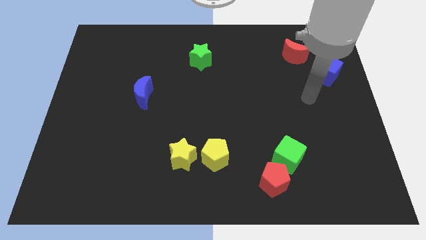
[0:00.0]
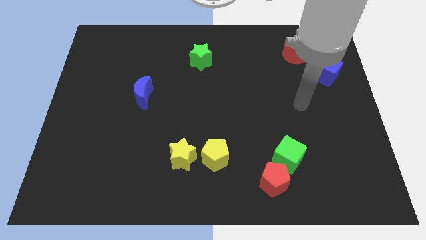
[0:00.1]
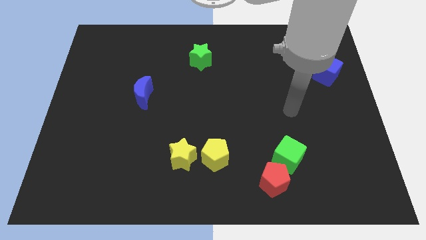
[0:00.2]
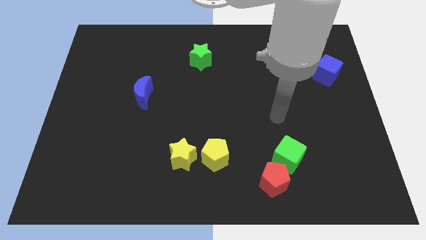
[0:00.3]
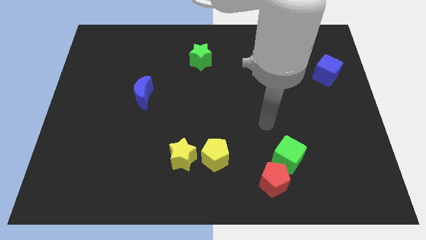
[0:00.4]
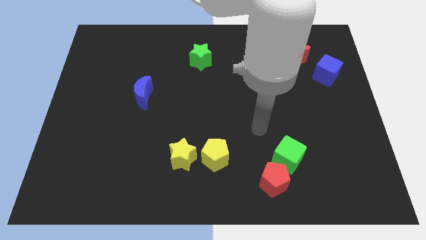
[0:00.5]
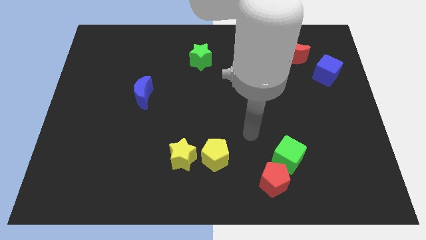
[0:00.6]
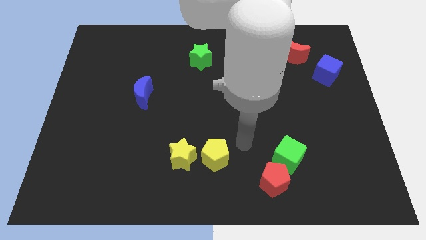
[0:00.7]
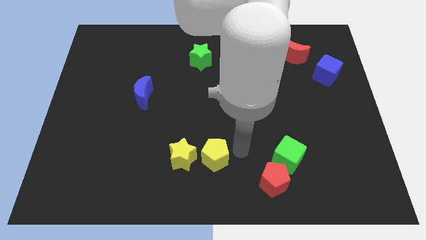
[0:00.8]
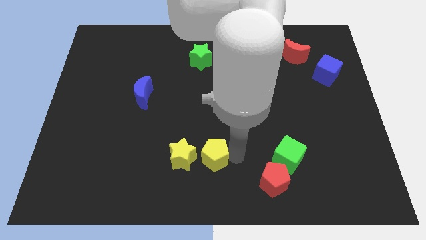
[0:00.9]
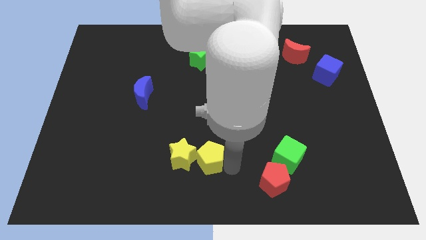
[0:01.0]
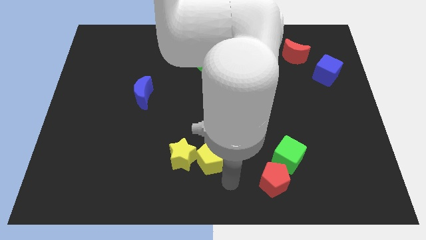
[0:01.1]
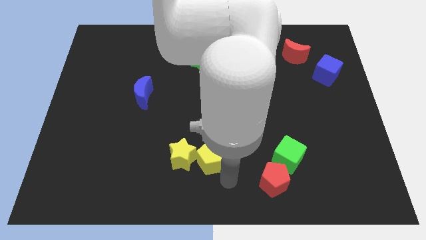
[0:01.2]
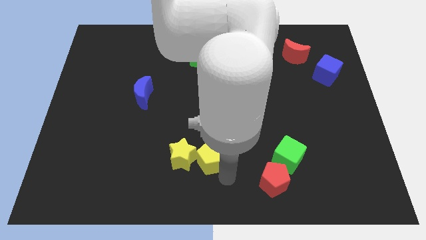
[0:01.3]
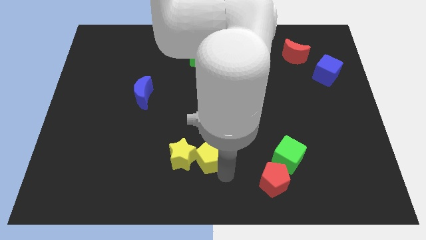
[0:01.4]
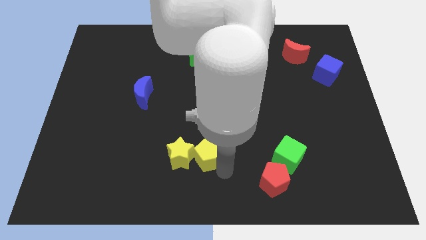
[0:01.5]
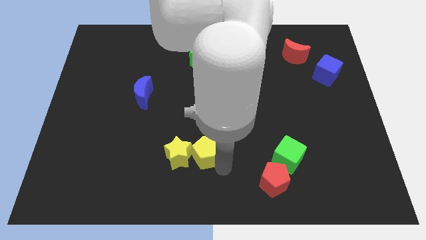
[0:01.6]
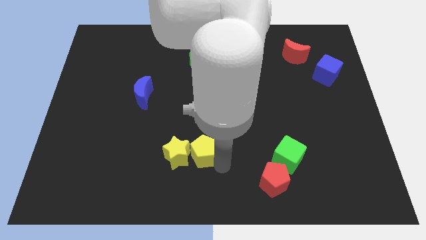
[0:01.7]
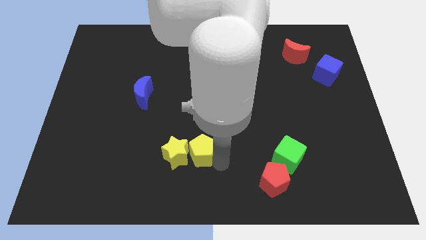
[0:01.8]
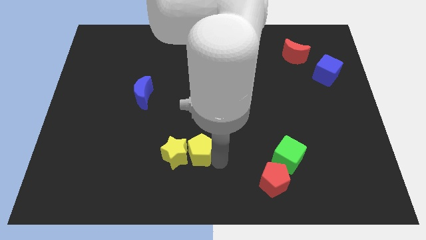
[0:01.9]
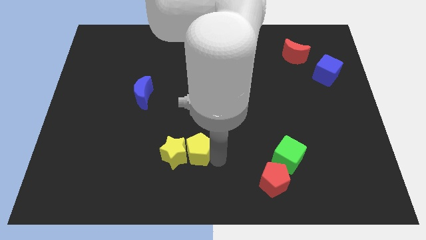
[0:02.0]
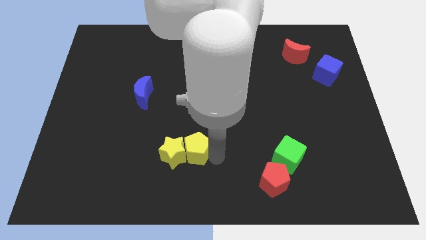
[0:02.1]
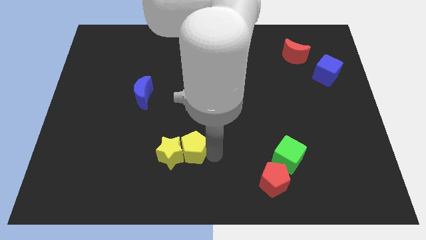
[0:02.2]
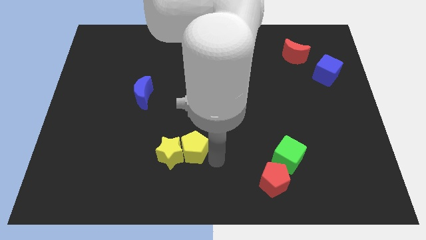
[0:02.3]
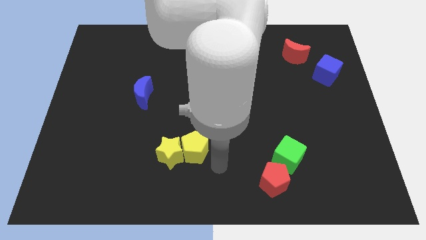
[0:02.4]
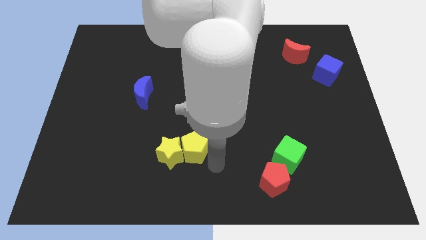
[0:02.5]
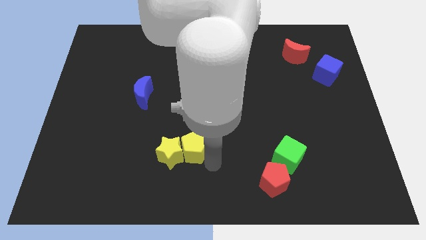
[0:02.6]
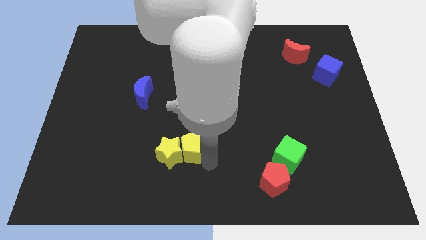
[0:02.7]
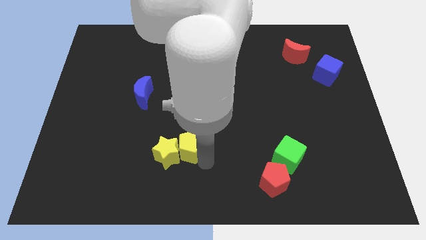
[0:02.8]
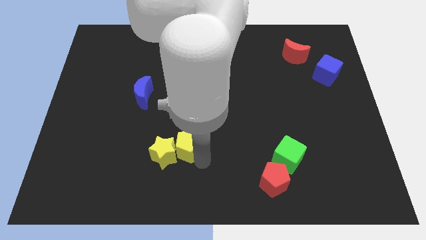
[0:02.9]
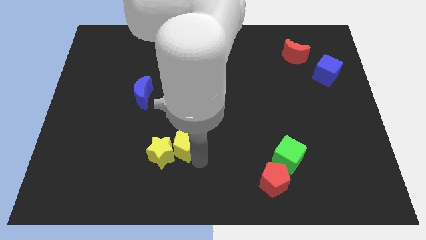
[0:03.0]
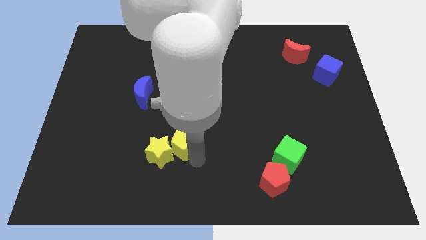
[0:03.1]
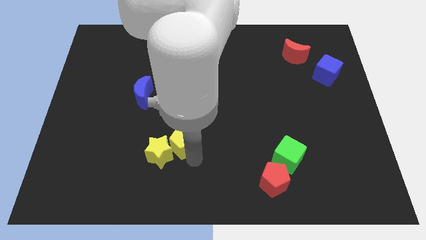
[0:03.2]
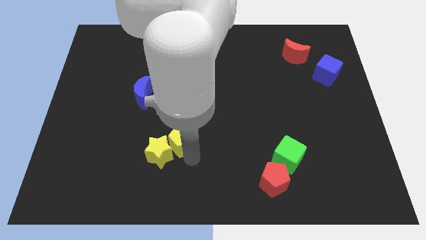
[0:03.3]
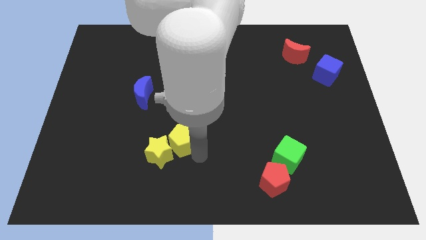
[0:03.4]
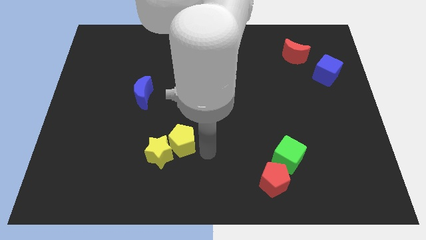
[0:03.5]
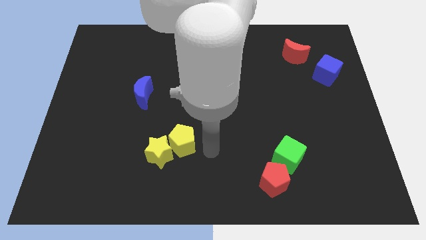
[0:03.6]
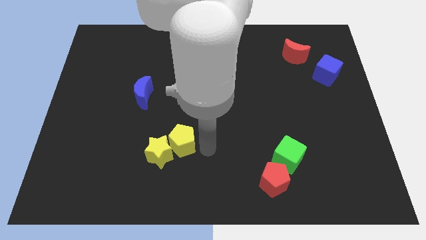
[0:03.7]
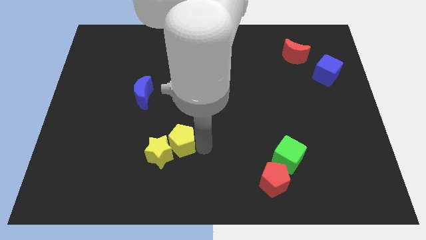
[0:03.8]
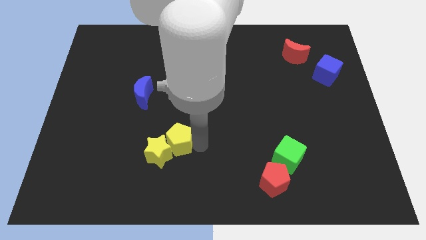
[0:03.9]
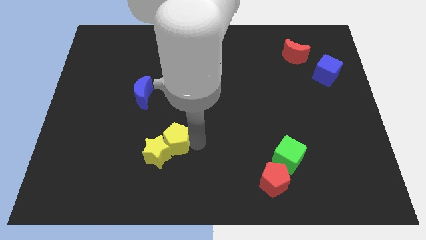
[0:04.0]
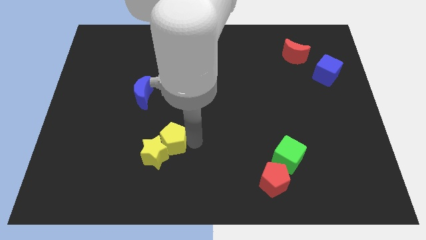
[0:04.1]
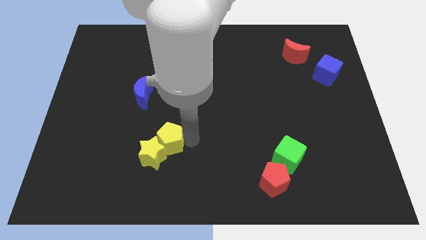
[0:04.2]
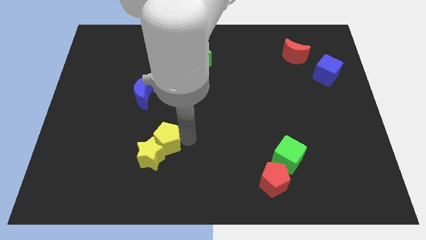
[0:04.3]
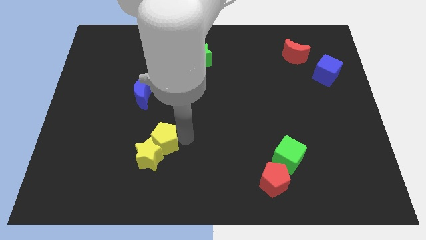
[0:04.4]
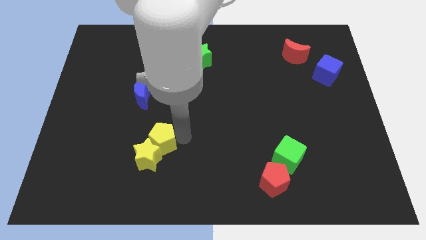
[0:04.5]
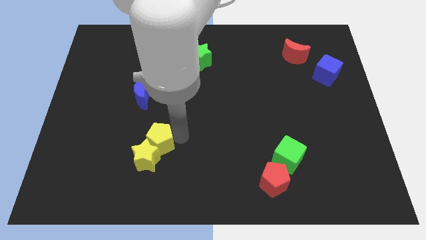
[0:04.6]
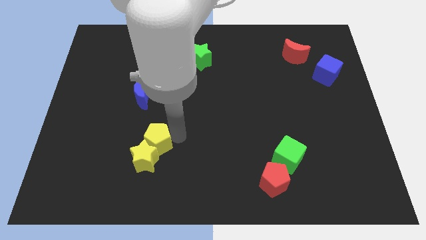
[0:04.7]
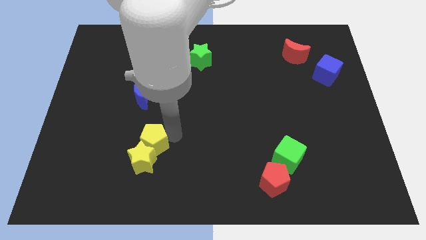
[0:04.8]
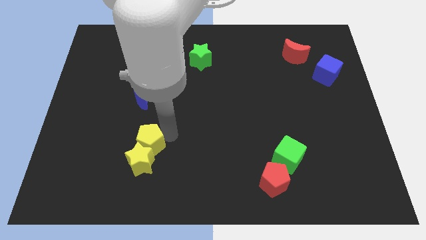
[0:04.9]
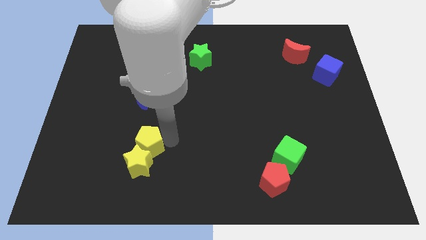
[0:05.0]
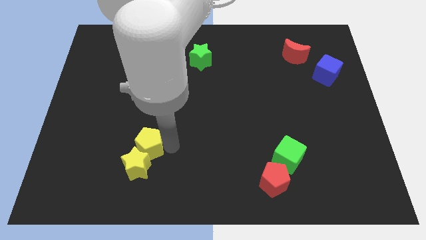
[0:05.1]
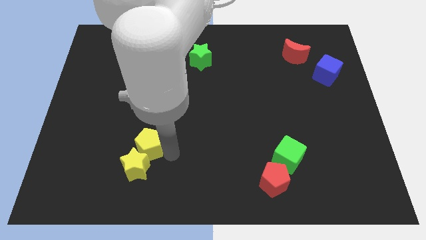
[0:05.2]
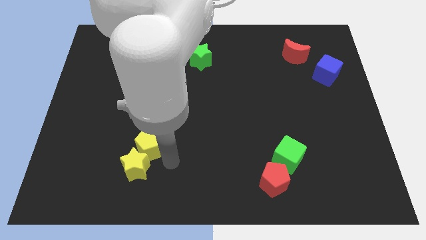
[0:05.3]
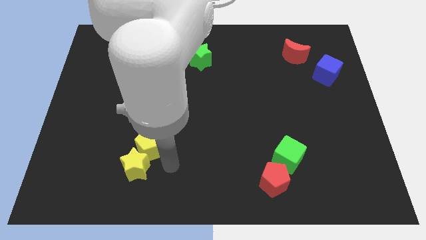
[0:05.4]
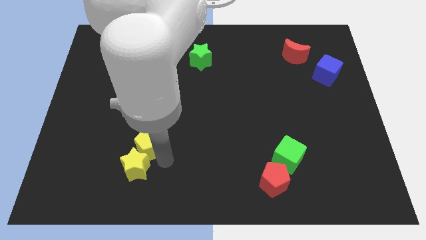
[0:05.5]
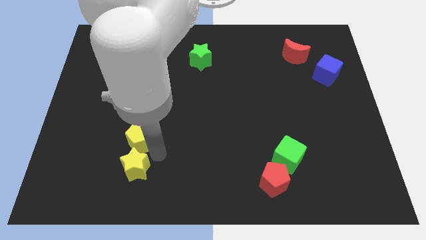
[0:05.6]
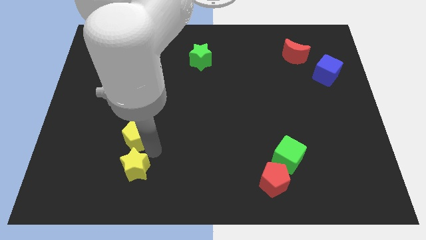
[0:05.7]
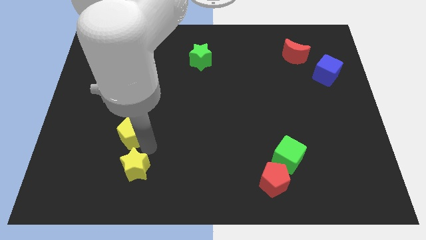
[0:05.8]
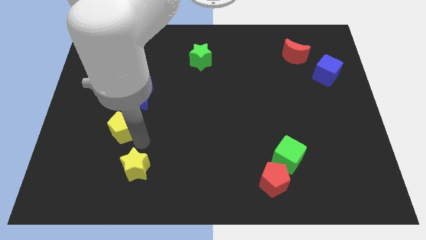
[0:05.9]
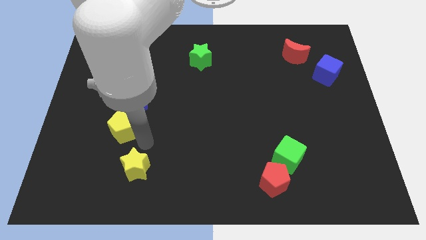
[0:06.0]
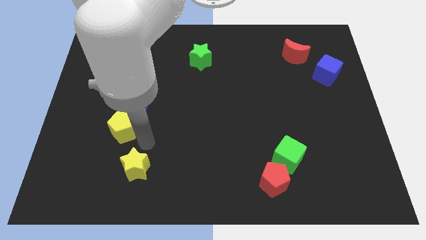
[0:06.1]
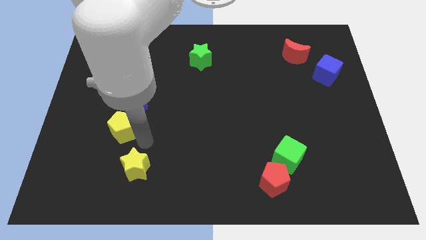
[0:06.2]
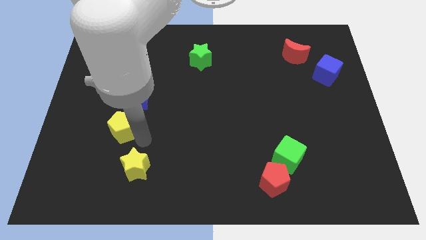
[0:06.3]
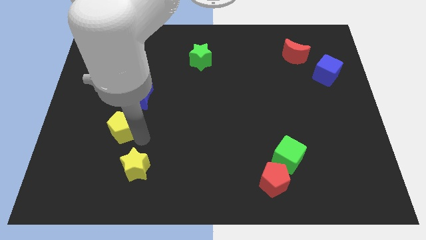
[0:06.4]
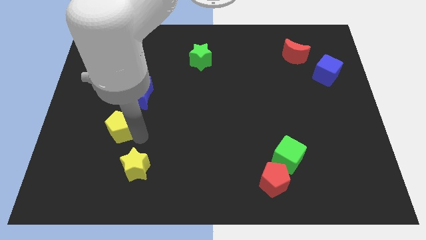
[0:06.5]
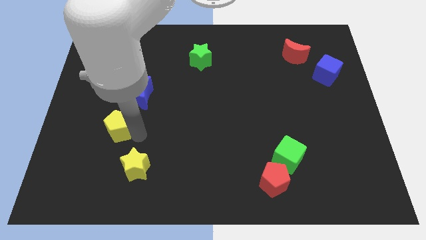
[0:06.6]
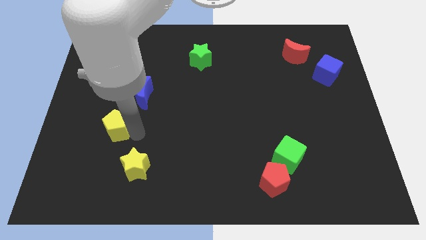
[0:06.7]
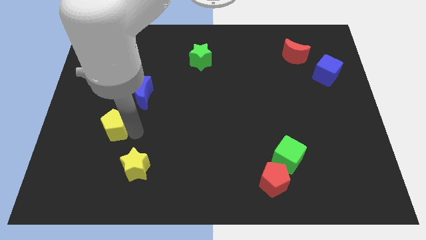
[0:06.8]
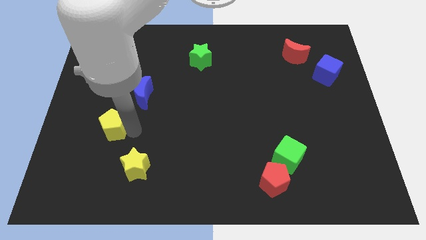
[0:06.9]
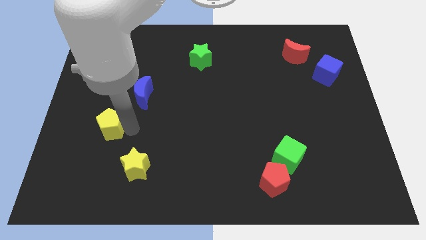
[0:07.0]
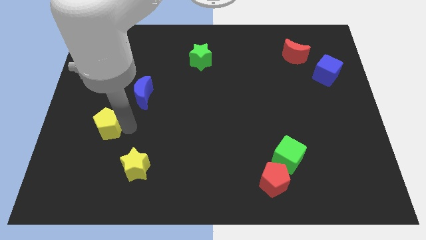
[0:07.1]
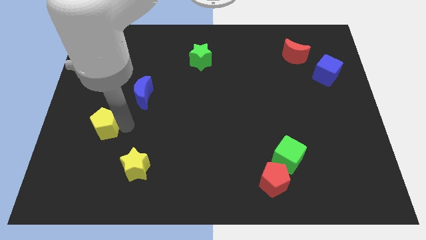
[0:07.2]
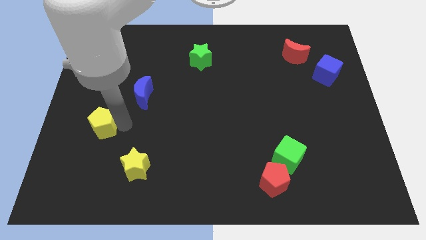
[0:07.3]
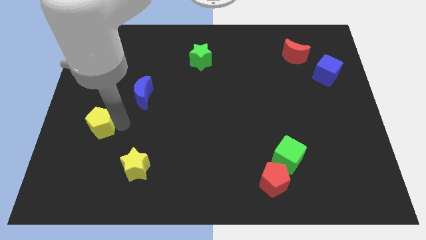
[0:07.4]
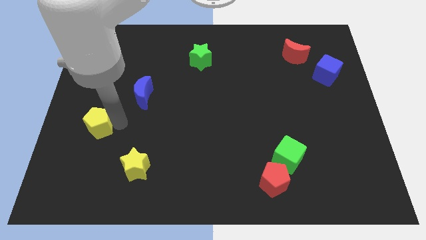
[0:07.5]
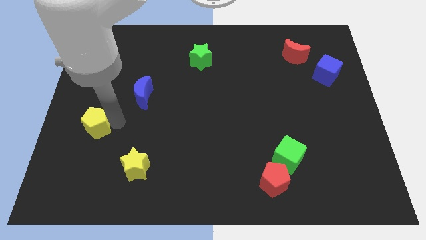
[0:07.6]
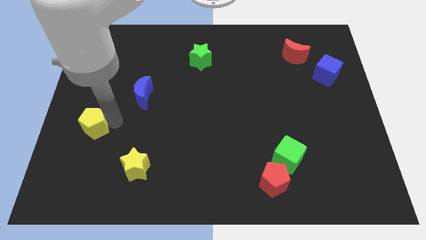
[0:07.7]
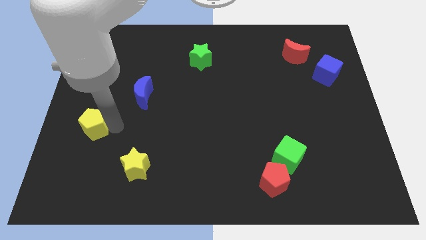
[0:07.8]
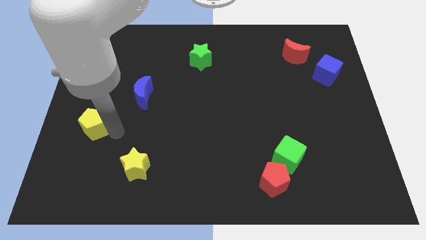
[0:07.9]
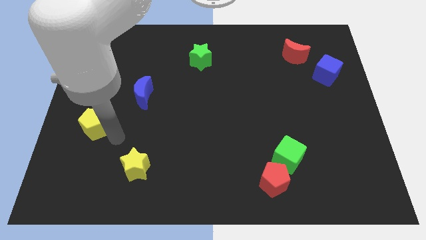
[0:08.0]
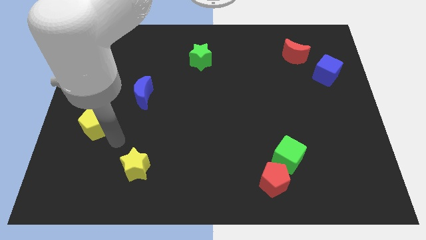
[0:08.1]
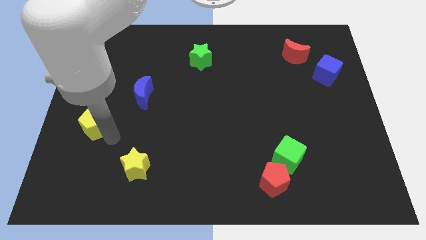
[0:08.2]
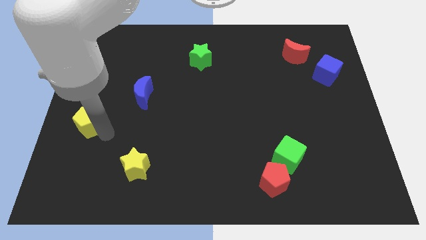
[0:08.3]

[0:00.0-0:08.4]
push the yellow pentagon to the left side
